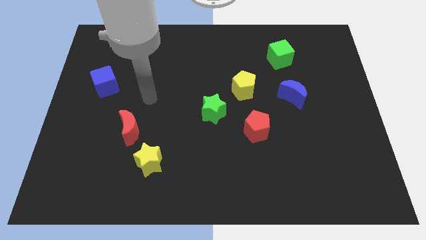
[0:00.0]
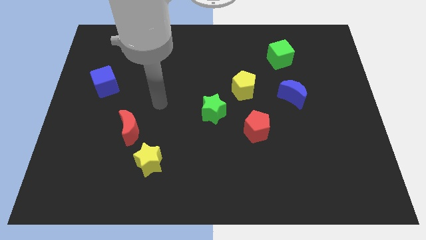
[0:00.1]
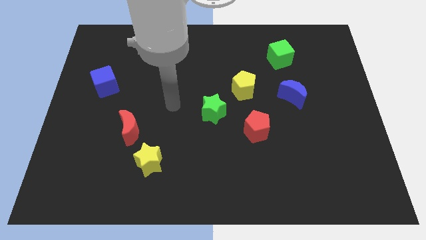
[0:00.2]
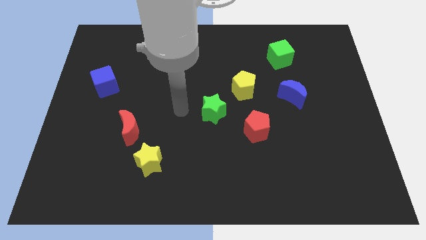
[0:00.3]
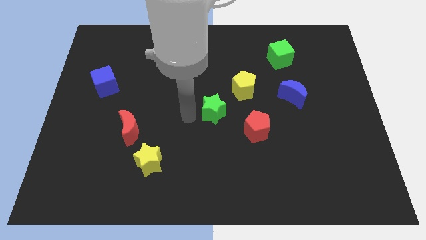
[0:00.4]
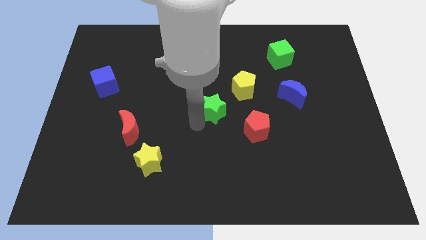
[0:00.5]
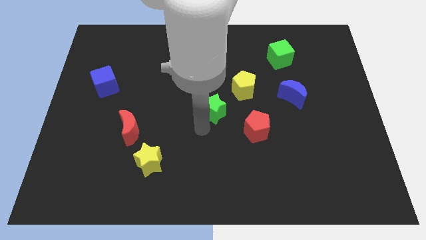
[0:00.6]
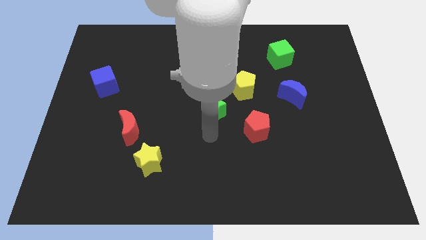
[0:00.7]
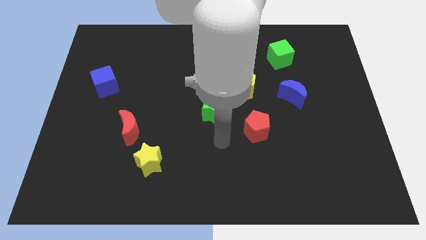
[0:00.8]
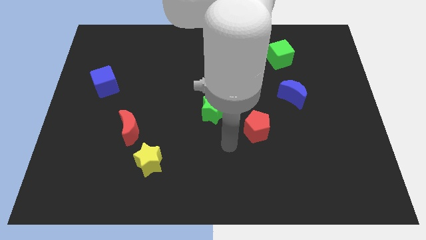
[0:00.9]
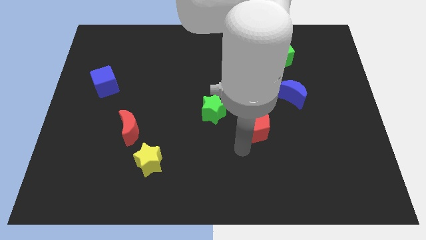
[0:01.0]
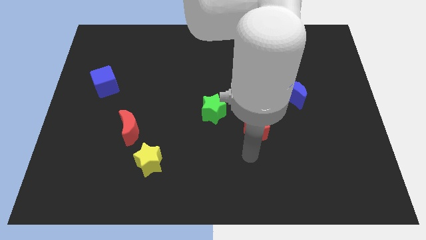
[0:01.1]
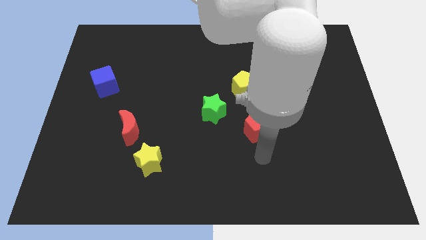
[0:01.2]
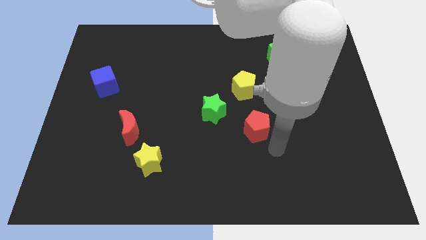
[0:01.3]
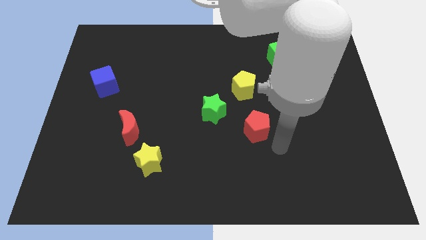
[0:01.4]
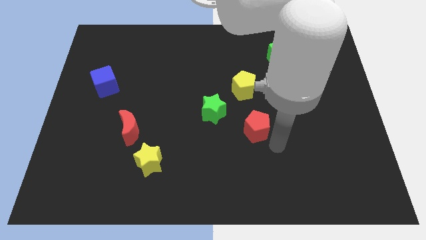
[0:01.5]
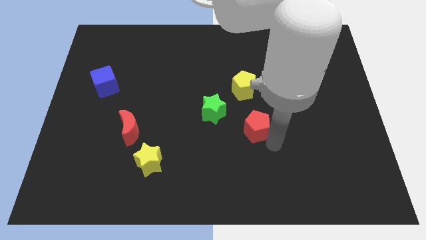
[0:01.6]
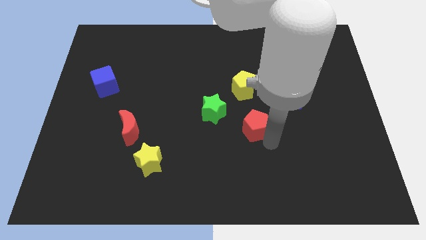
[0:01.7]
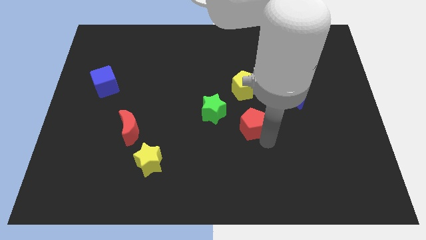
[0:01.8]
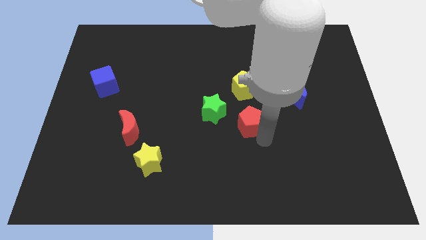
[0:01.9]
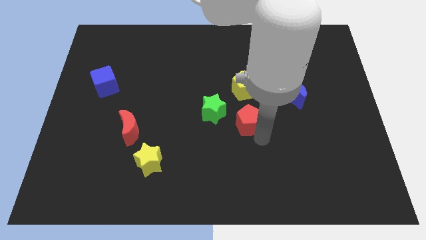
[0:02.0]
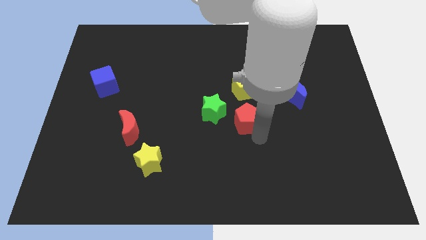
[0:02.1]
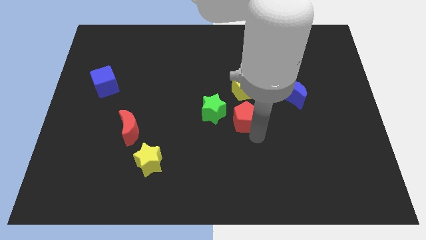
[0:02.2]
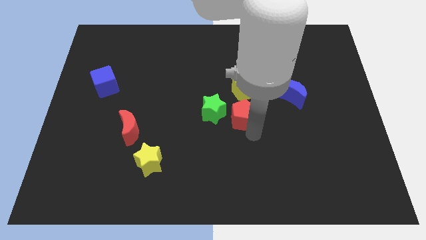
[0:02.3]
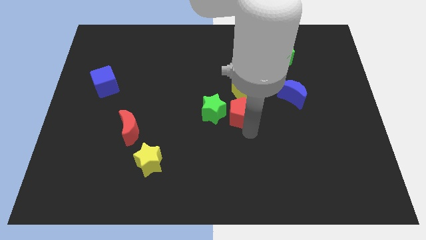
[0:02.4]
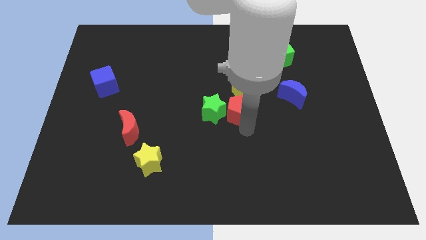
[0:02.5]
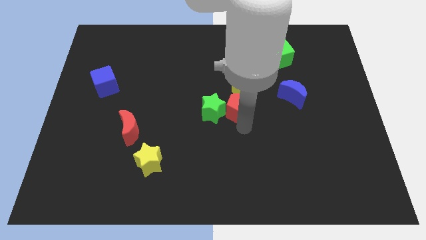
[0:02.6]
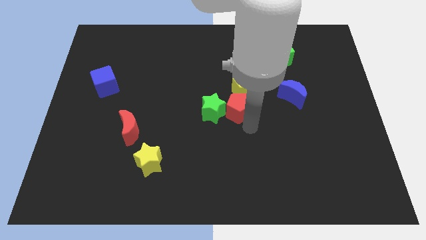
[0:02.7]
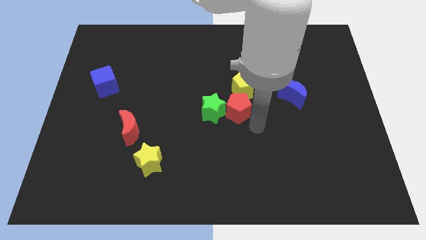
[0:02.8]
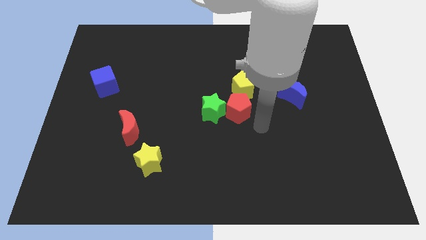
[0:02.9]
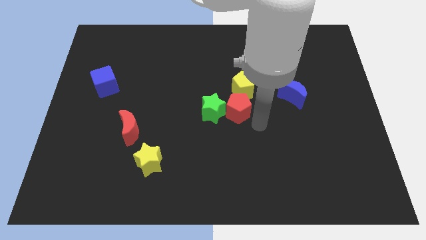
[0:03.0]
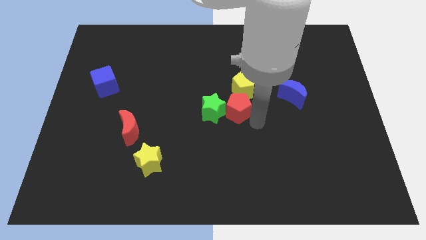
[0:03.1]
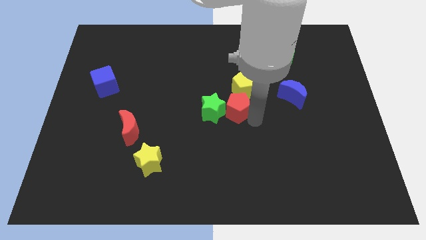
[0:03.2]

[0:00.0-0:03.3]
move the red pentagon upwards and left diagonally somewhat

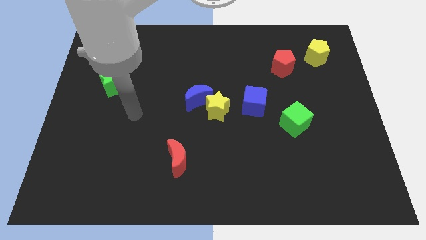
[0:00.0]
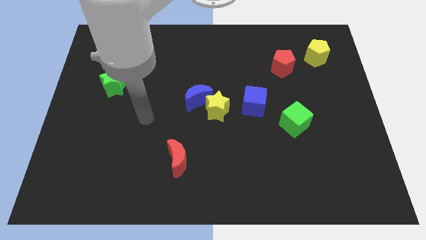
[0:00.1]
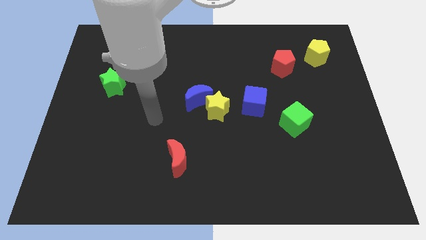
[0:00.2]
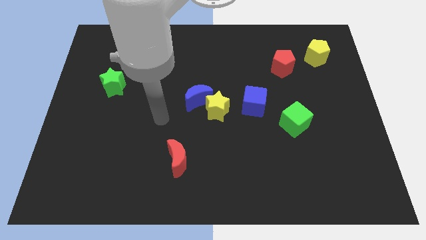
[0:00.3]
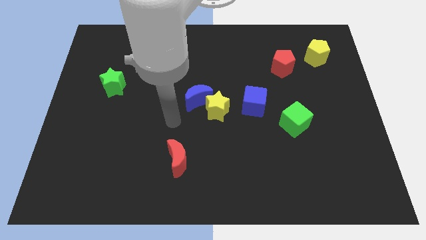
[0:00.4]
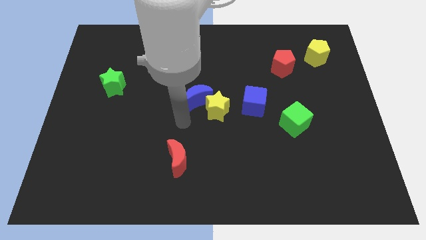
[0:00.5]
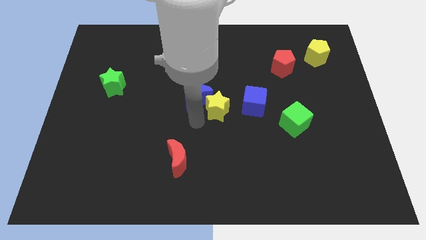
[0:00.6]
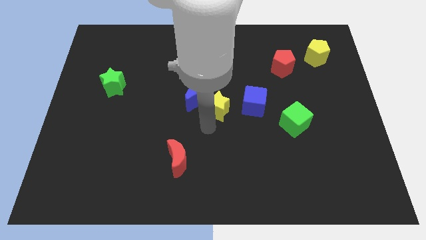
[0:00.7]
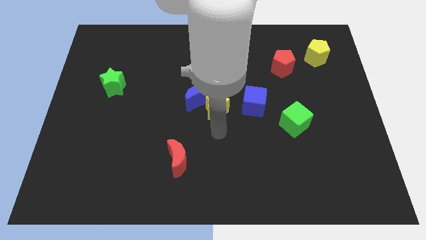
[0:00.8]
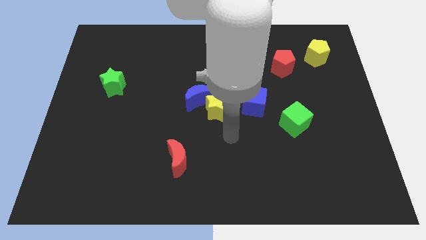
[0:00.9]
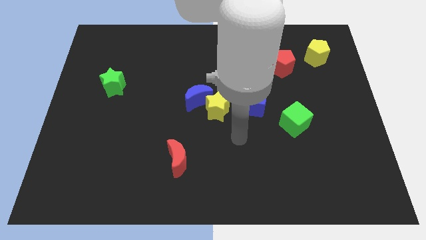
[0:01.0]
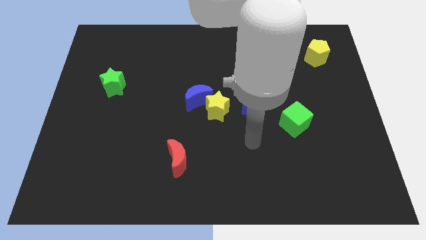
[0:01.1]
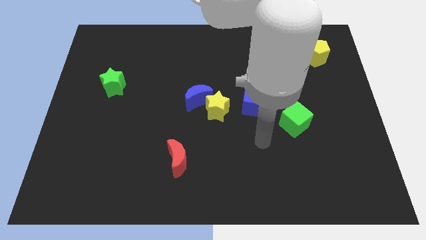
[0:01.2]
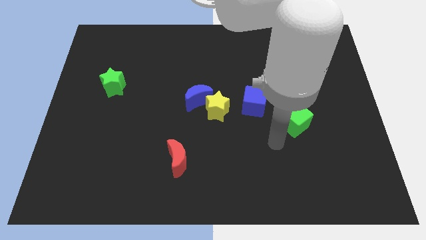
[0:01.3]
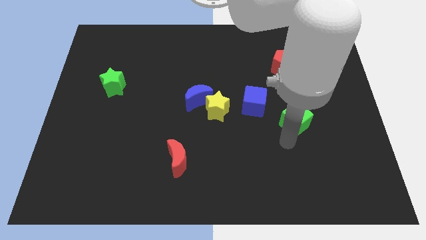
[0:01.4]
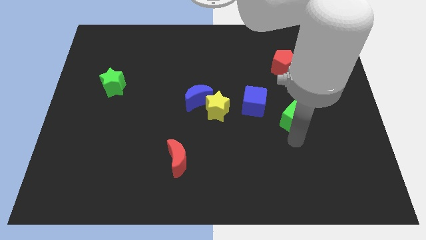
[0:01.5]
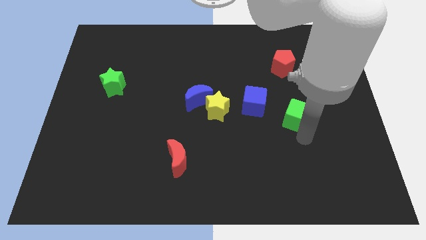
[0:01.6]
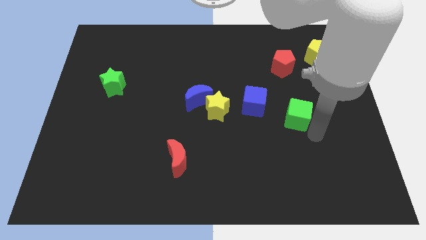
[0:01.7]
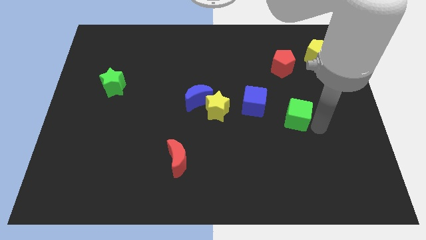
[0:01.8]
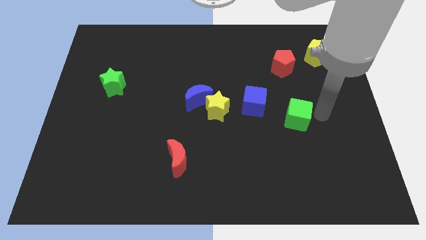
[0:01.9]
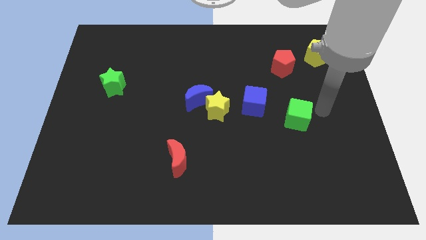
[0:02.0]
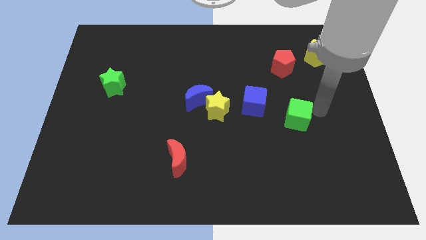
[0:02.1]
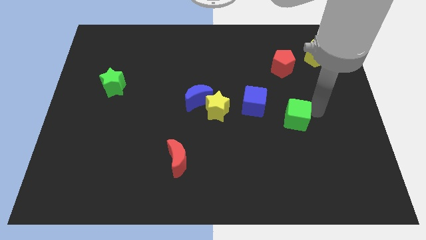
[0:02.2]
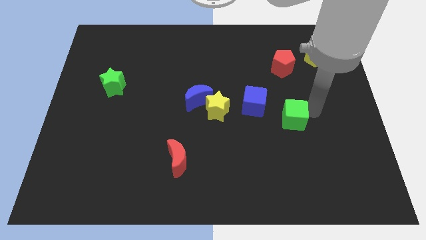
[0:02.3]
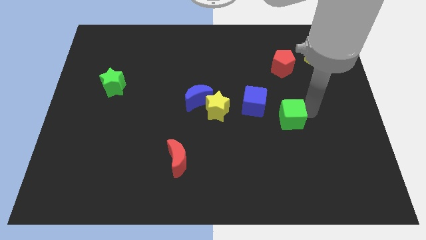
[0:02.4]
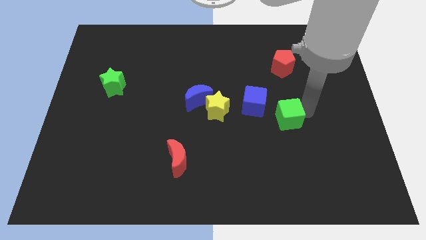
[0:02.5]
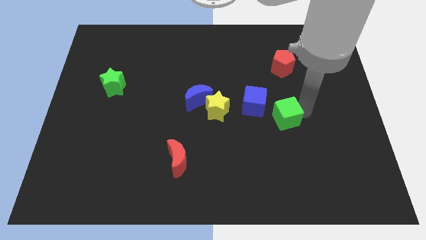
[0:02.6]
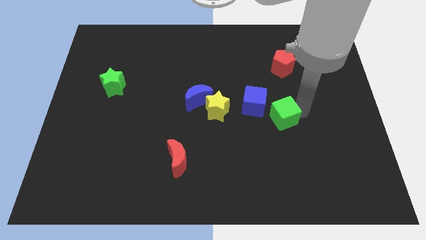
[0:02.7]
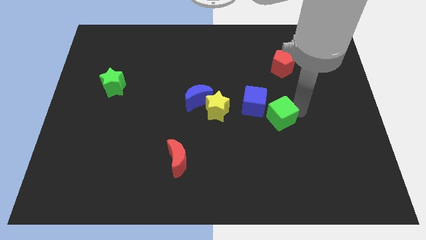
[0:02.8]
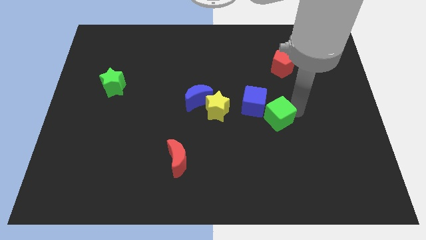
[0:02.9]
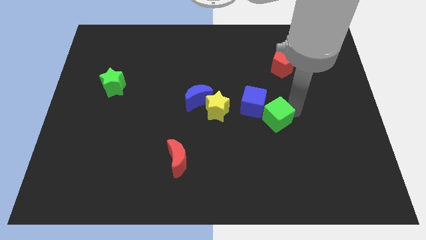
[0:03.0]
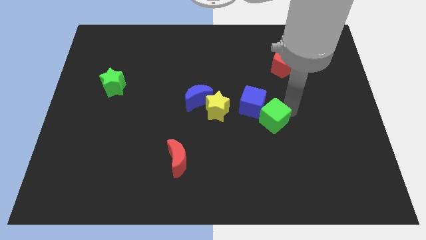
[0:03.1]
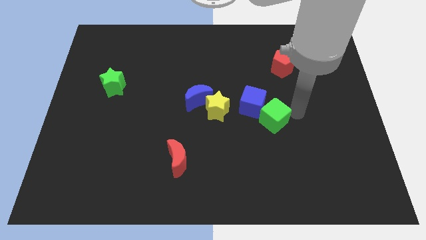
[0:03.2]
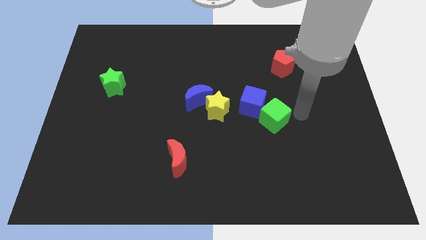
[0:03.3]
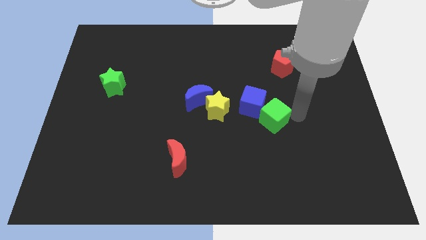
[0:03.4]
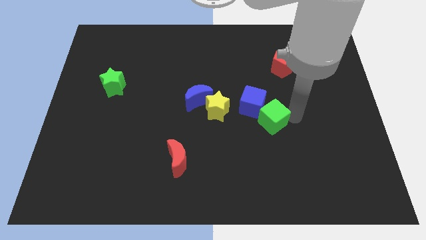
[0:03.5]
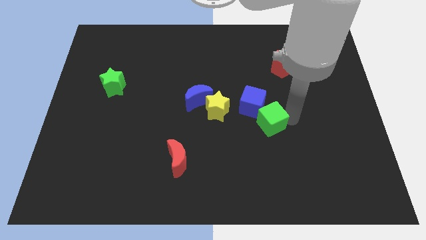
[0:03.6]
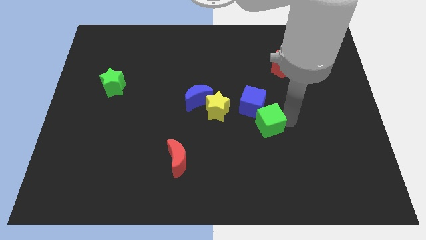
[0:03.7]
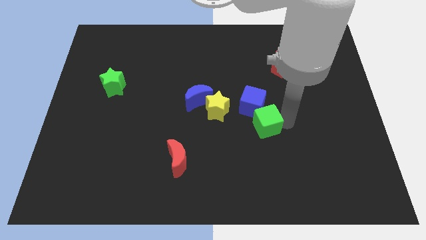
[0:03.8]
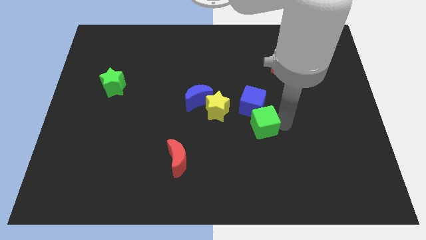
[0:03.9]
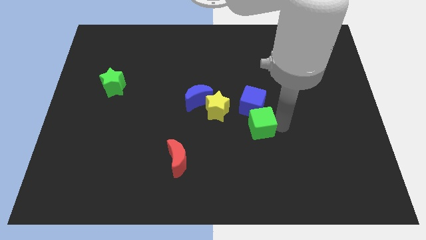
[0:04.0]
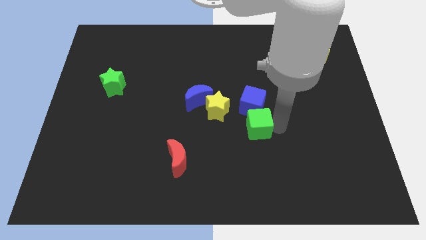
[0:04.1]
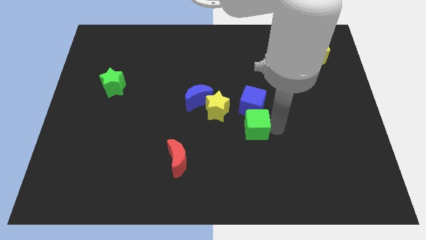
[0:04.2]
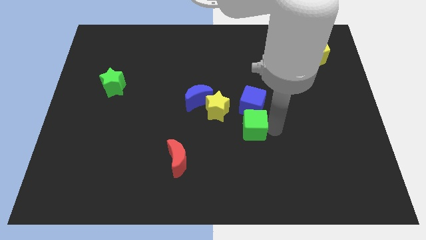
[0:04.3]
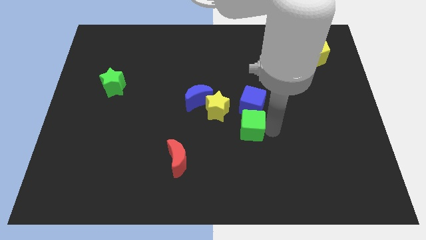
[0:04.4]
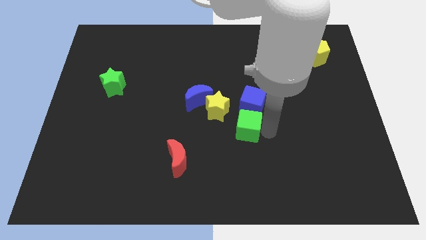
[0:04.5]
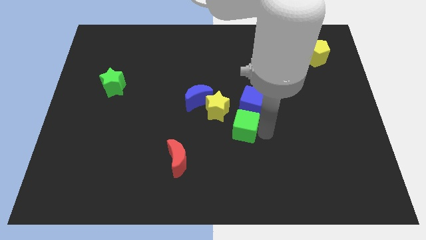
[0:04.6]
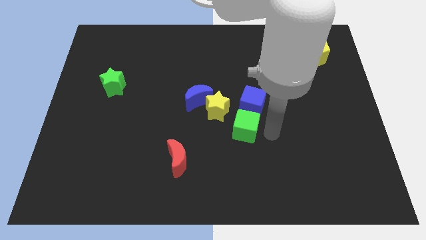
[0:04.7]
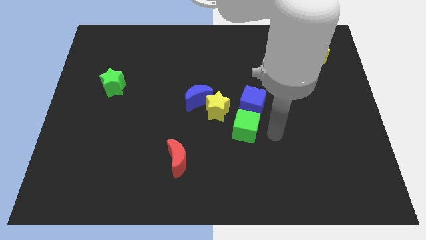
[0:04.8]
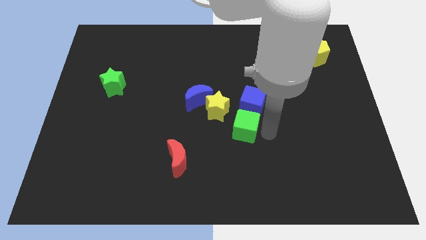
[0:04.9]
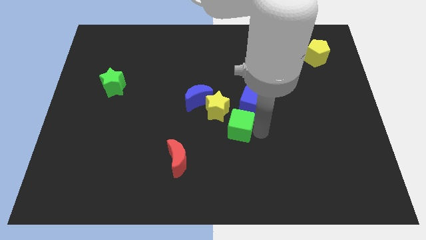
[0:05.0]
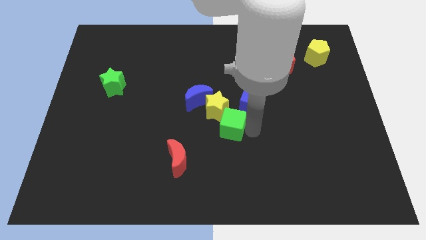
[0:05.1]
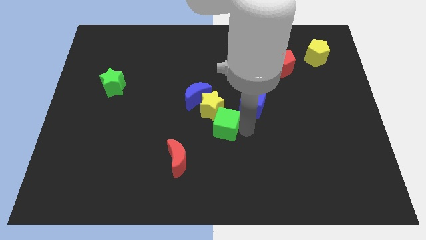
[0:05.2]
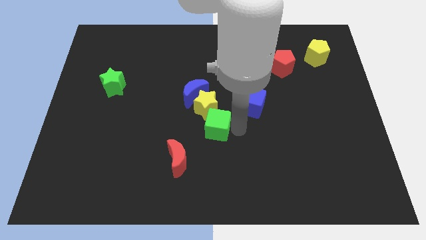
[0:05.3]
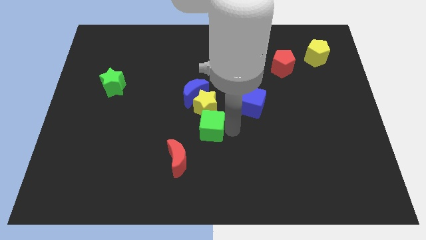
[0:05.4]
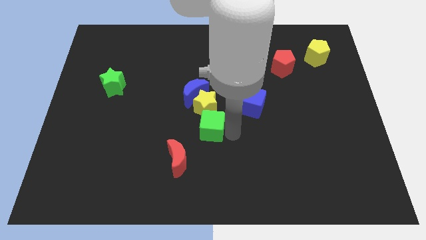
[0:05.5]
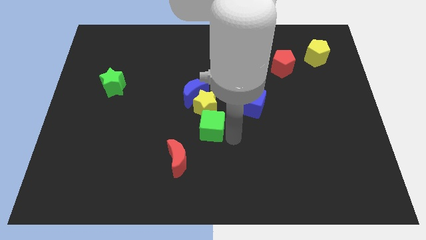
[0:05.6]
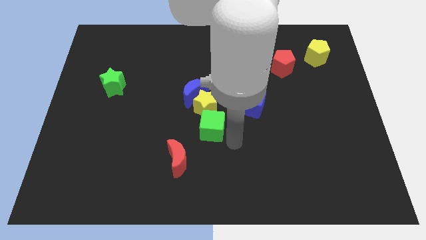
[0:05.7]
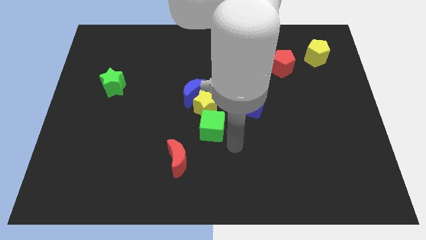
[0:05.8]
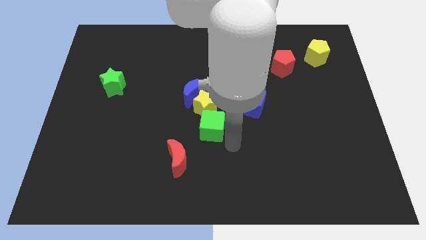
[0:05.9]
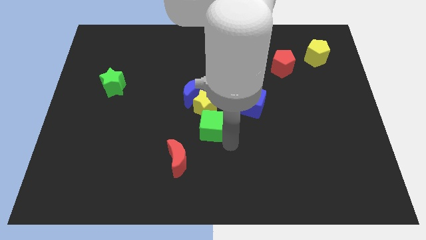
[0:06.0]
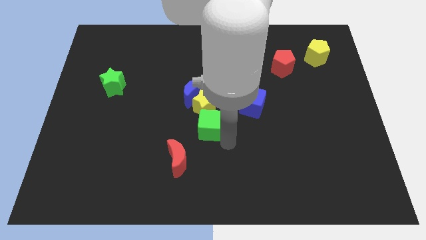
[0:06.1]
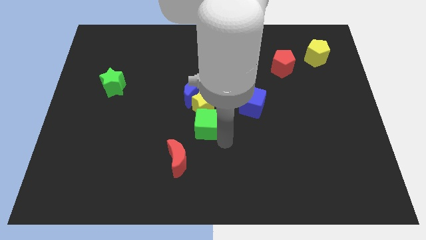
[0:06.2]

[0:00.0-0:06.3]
slide the green cube left
